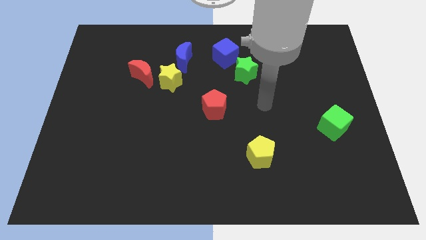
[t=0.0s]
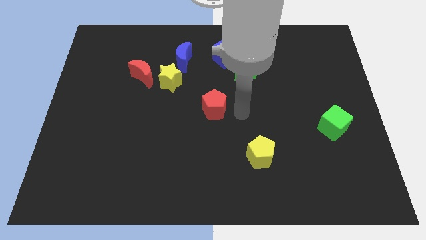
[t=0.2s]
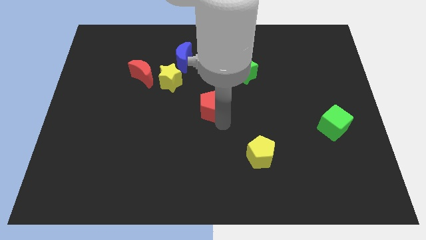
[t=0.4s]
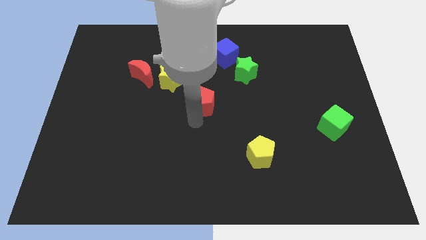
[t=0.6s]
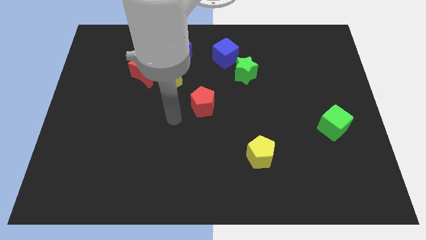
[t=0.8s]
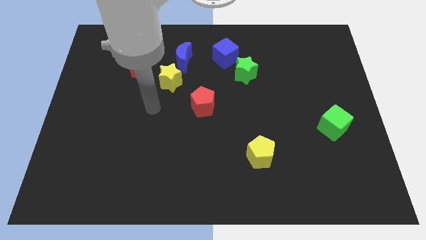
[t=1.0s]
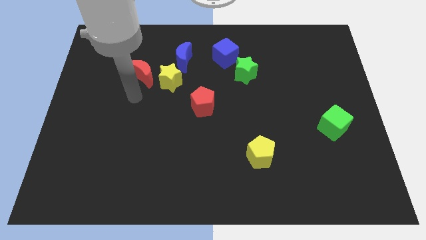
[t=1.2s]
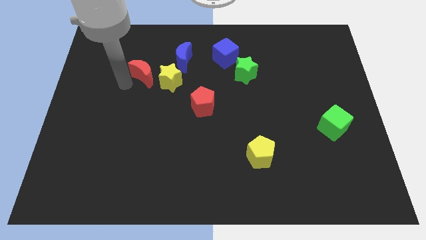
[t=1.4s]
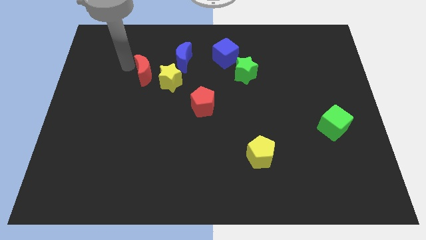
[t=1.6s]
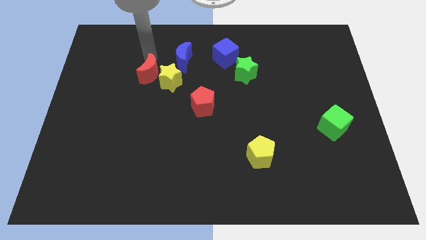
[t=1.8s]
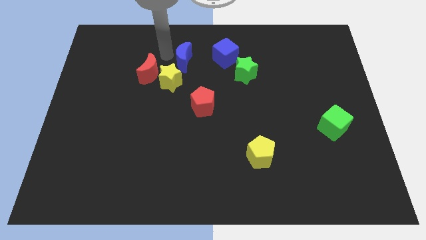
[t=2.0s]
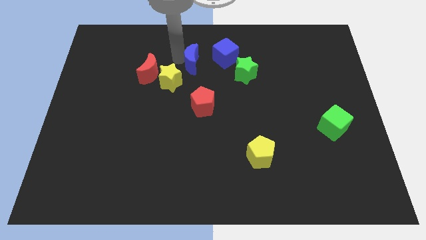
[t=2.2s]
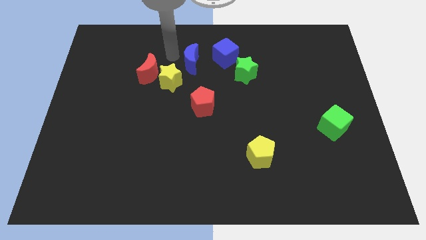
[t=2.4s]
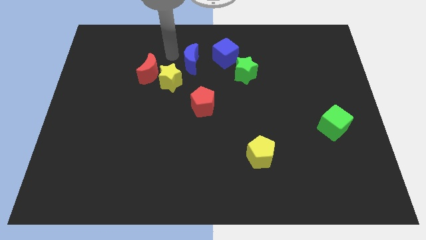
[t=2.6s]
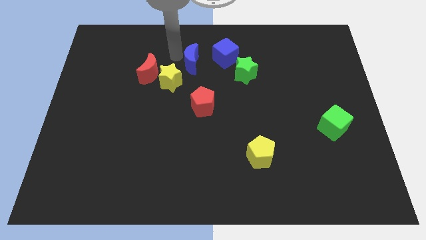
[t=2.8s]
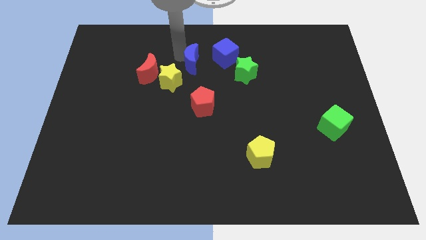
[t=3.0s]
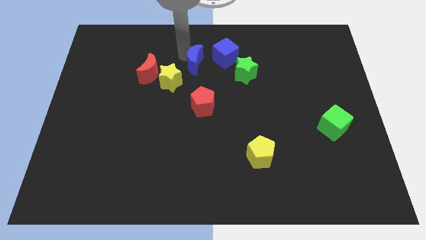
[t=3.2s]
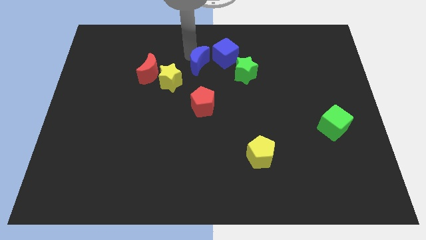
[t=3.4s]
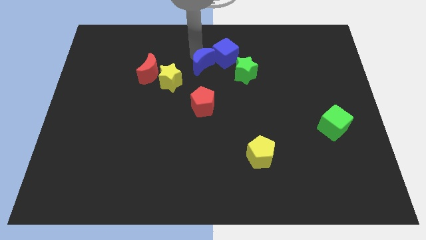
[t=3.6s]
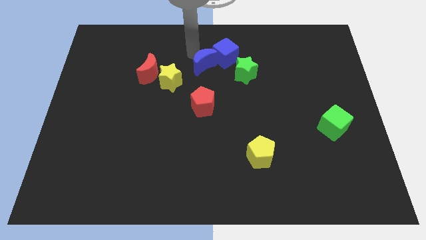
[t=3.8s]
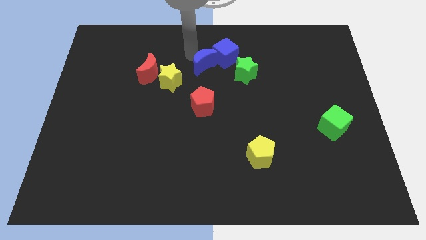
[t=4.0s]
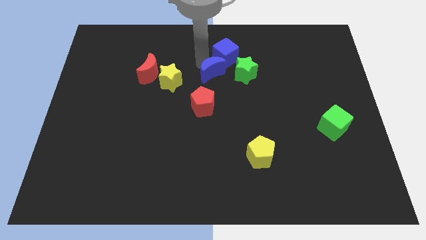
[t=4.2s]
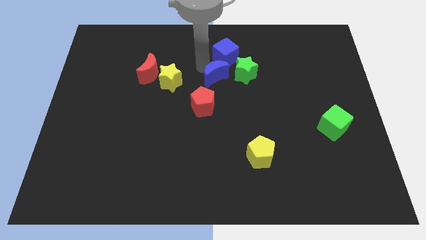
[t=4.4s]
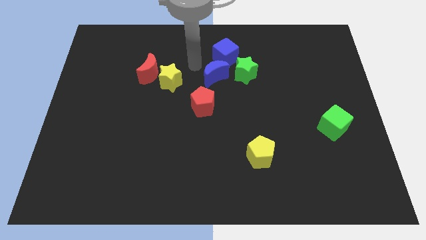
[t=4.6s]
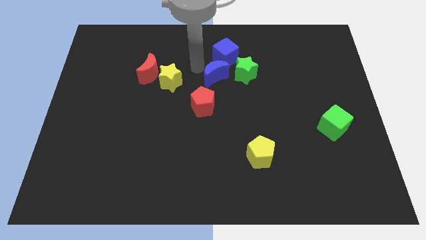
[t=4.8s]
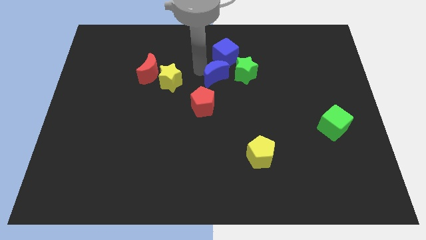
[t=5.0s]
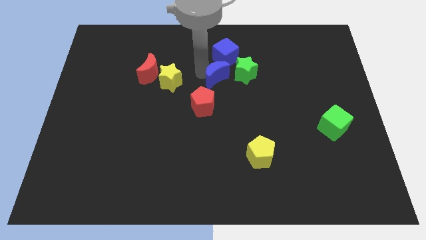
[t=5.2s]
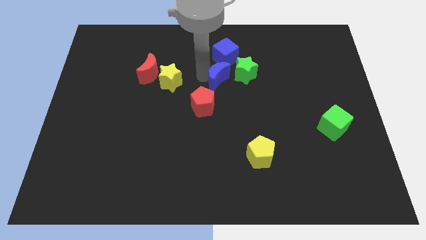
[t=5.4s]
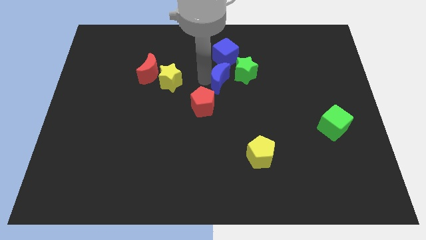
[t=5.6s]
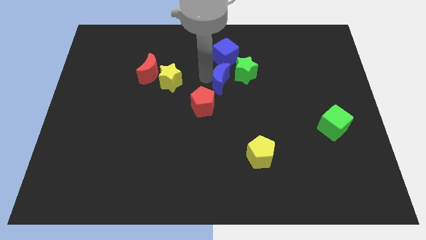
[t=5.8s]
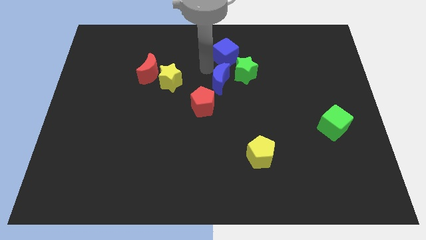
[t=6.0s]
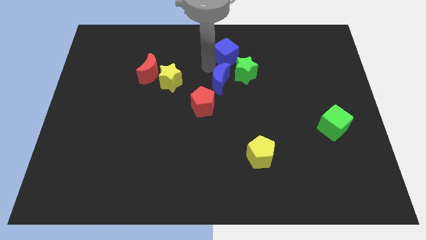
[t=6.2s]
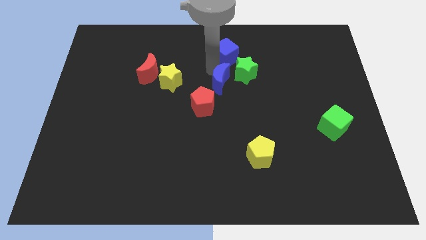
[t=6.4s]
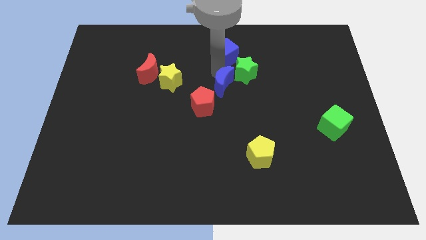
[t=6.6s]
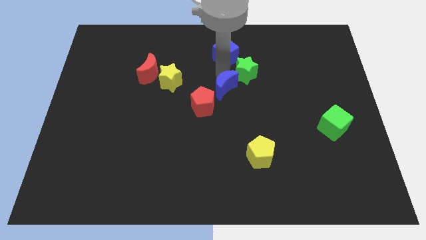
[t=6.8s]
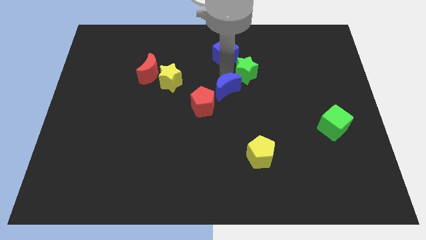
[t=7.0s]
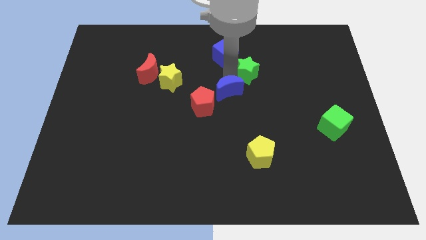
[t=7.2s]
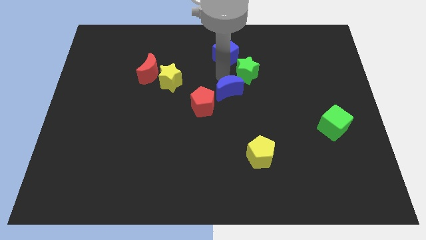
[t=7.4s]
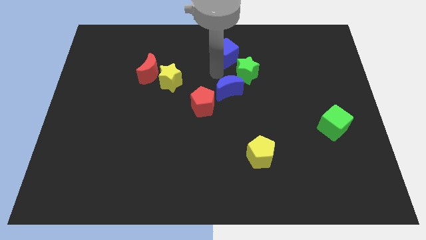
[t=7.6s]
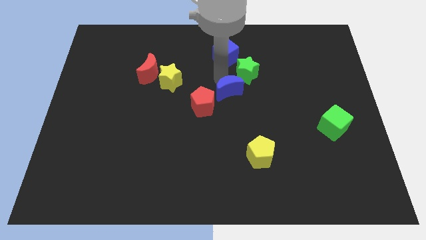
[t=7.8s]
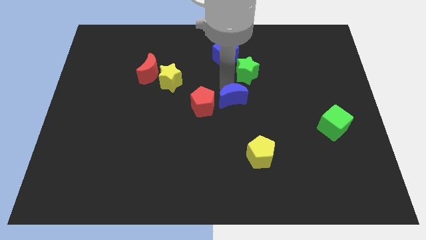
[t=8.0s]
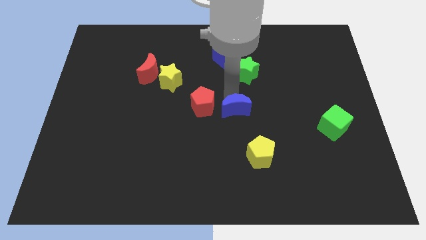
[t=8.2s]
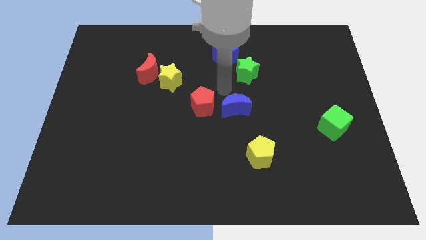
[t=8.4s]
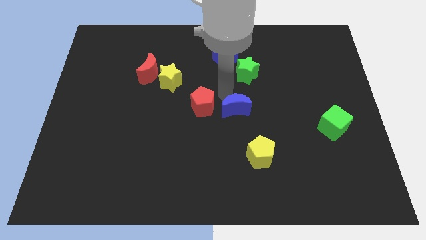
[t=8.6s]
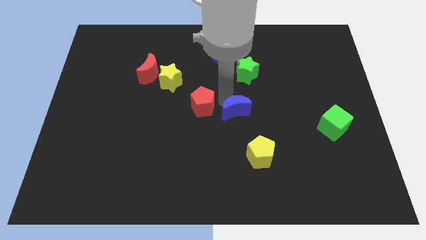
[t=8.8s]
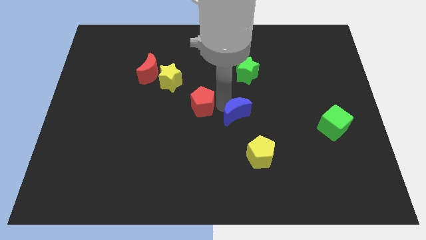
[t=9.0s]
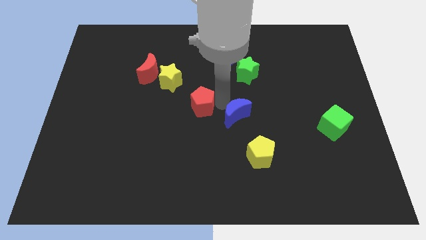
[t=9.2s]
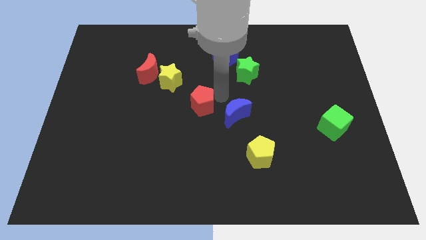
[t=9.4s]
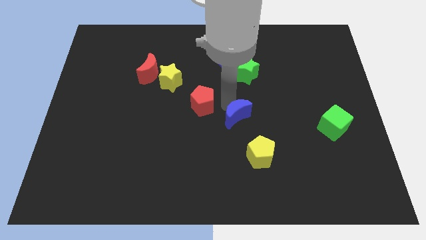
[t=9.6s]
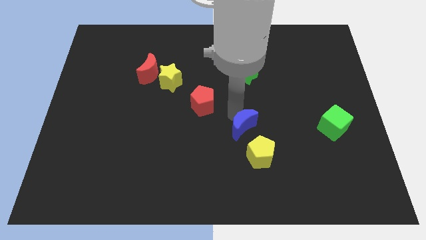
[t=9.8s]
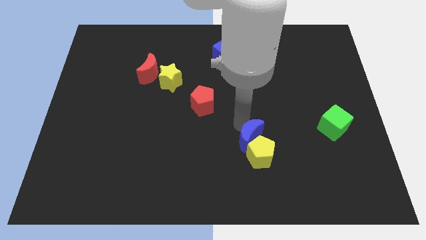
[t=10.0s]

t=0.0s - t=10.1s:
slide the blue moon next to the yellow pentagon

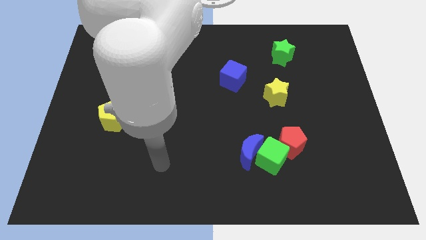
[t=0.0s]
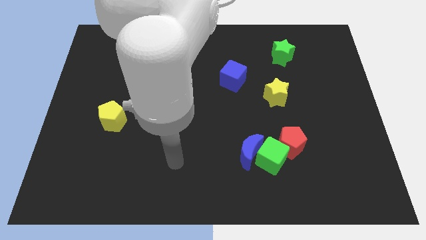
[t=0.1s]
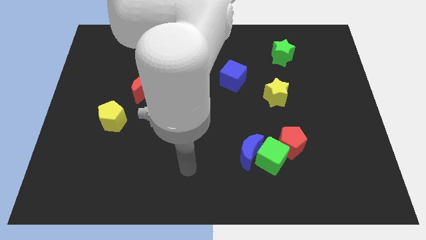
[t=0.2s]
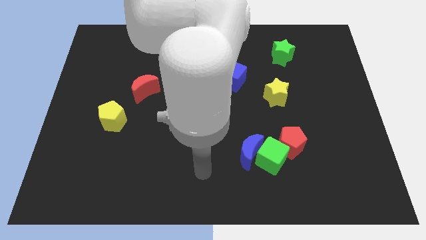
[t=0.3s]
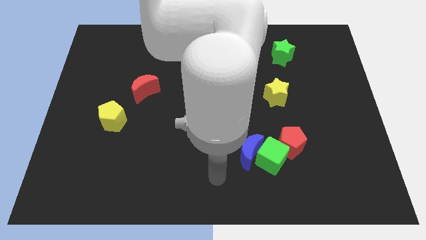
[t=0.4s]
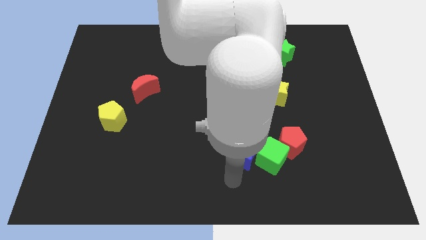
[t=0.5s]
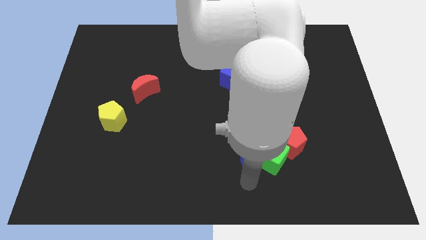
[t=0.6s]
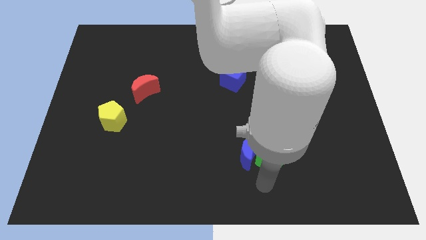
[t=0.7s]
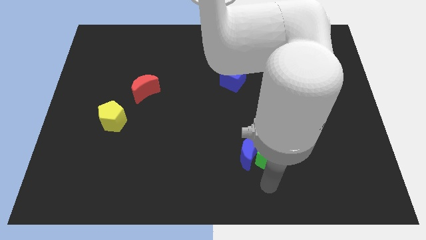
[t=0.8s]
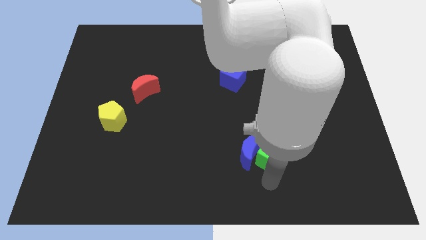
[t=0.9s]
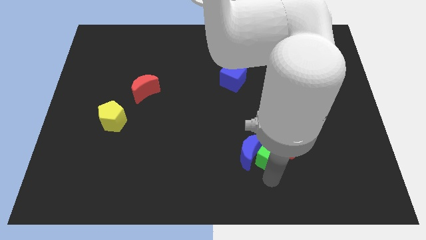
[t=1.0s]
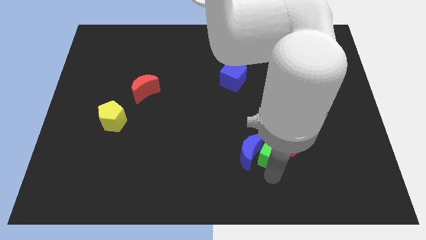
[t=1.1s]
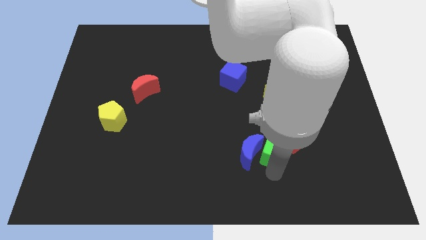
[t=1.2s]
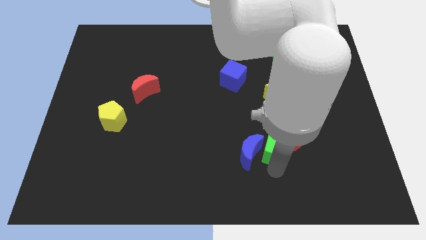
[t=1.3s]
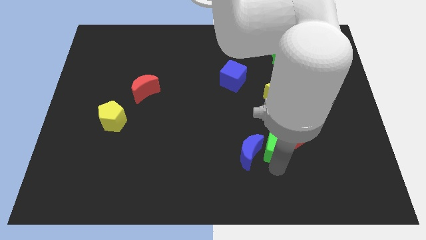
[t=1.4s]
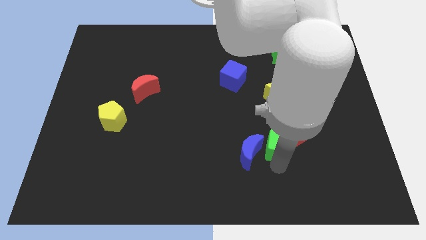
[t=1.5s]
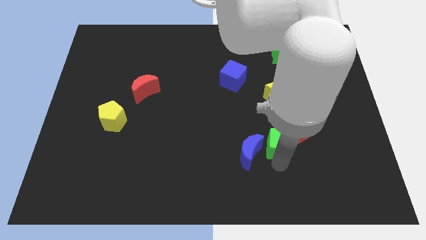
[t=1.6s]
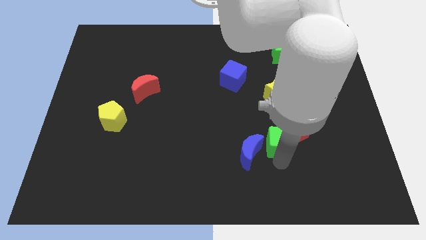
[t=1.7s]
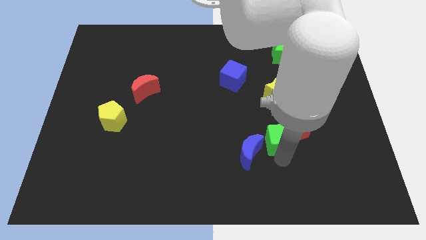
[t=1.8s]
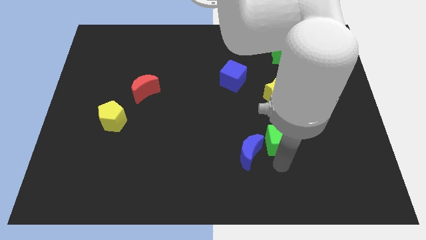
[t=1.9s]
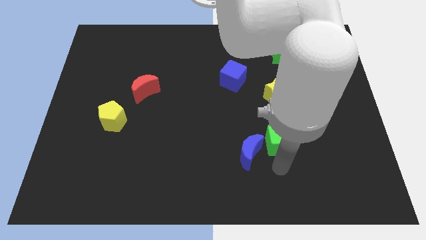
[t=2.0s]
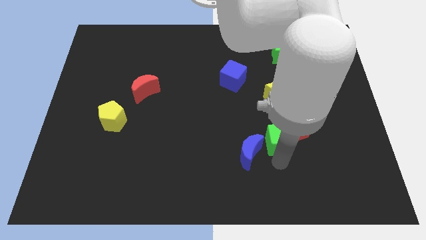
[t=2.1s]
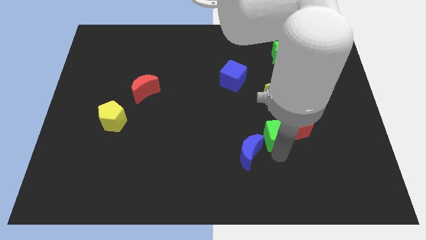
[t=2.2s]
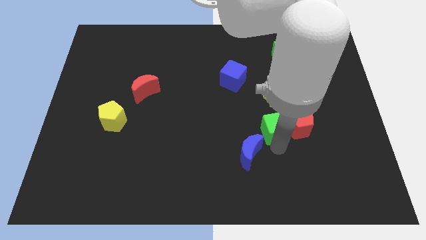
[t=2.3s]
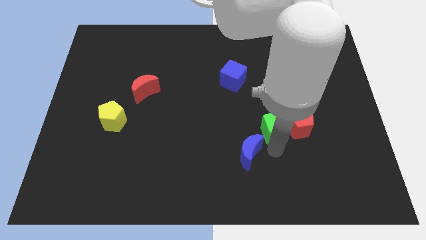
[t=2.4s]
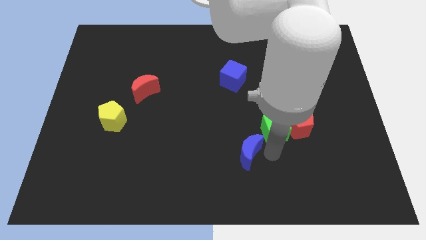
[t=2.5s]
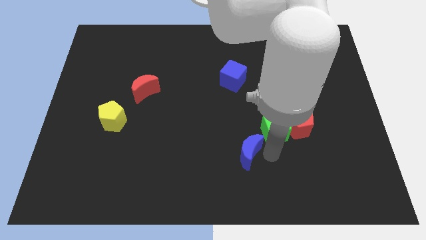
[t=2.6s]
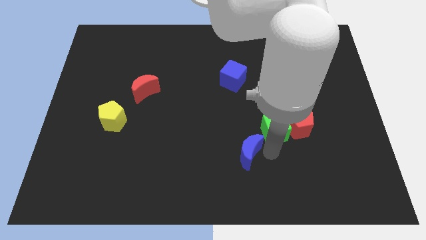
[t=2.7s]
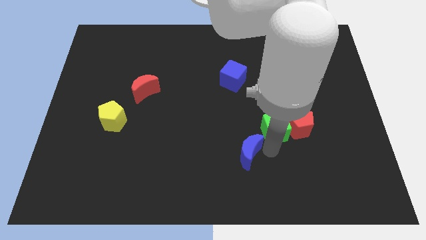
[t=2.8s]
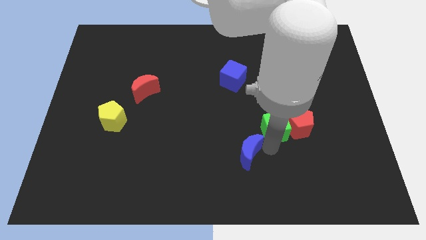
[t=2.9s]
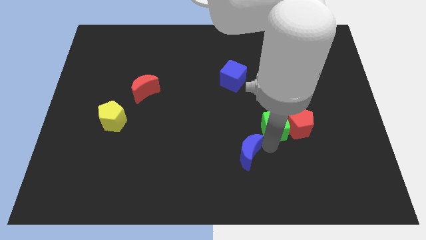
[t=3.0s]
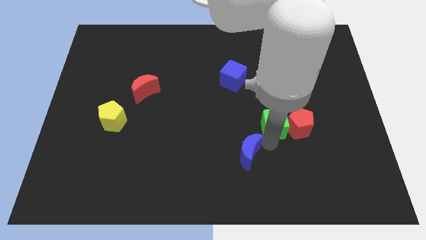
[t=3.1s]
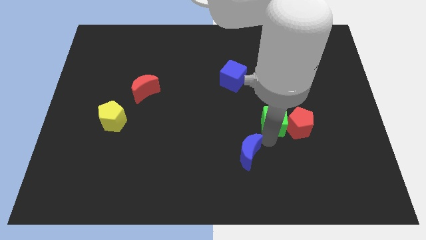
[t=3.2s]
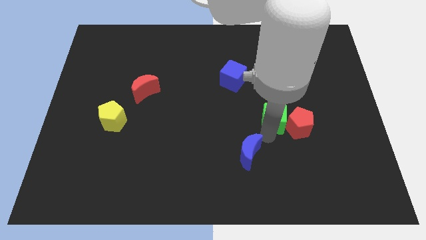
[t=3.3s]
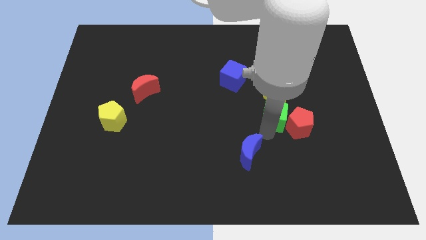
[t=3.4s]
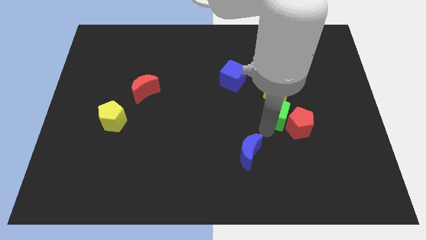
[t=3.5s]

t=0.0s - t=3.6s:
put the green cube to the yellow star
